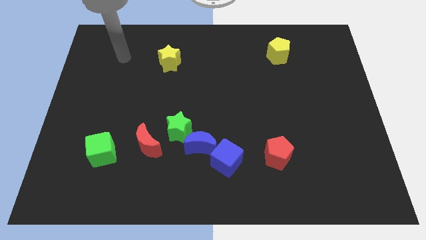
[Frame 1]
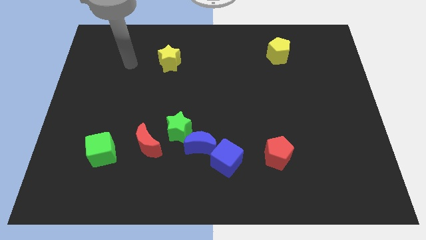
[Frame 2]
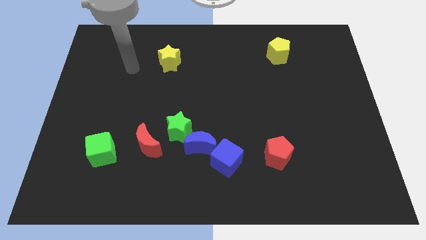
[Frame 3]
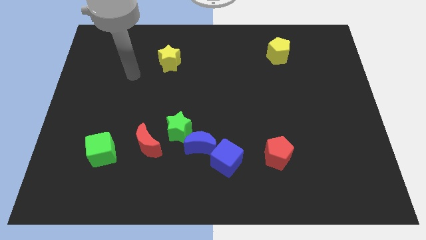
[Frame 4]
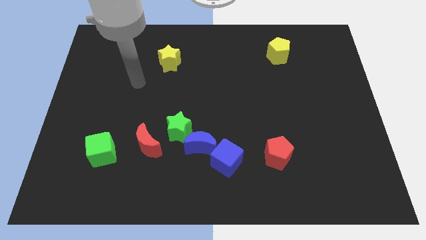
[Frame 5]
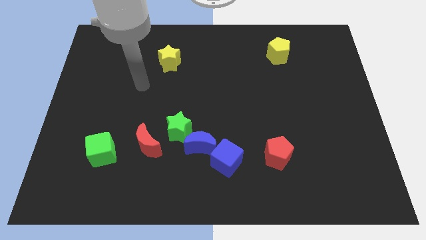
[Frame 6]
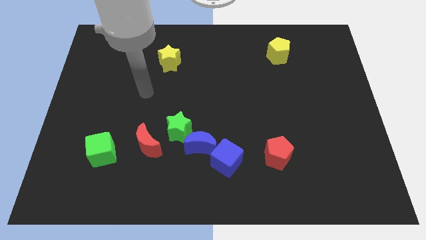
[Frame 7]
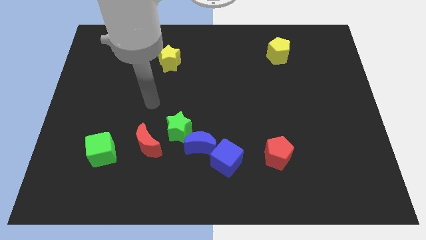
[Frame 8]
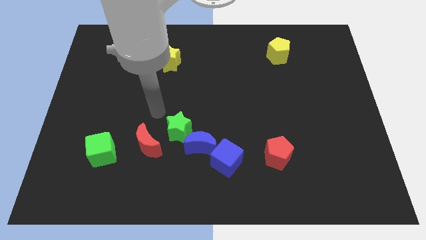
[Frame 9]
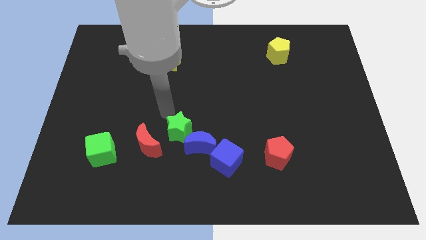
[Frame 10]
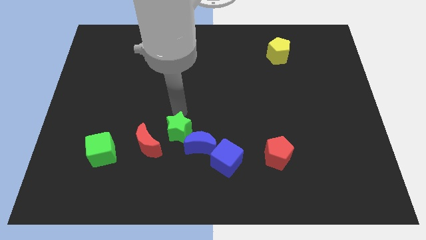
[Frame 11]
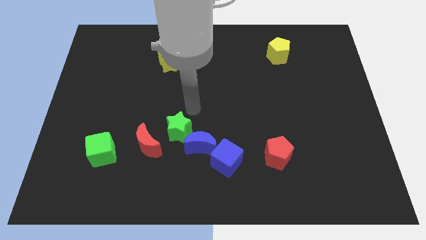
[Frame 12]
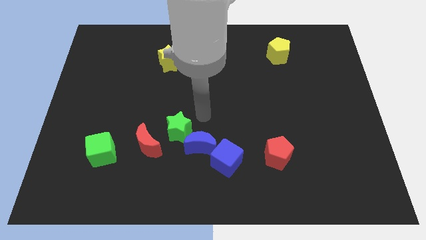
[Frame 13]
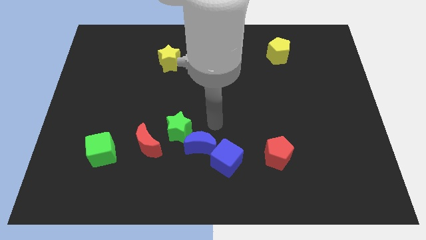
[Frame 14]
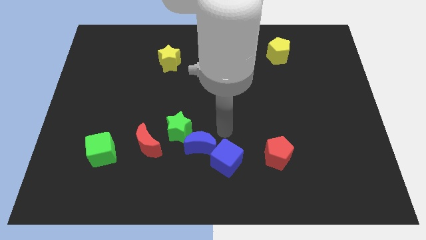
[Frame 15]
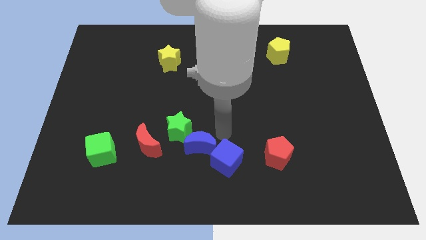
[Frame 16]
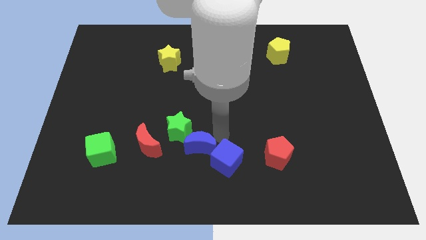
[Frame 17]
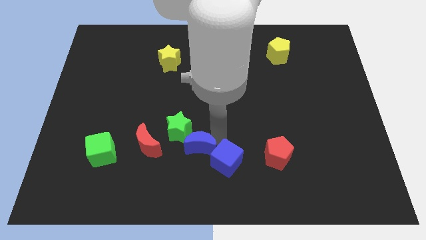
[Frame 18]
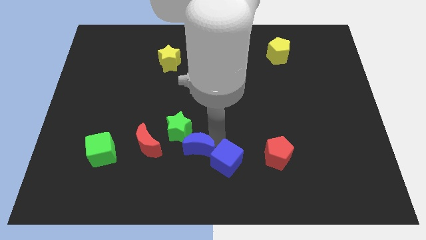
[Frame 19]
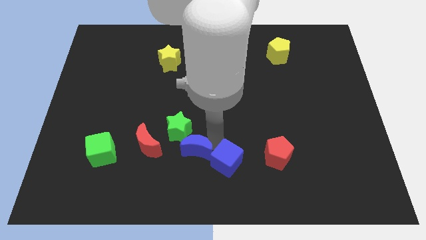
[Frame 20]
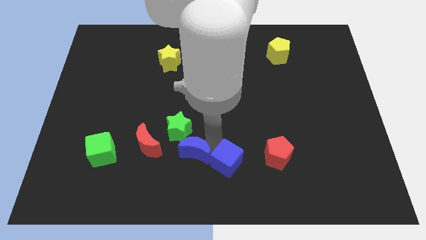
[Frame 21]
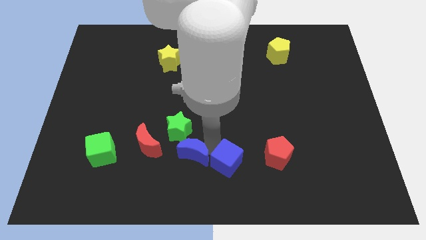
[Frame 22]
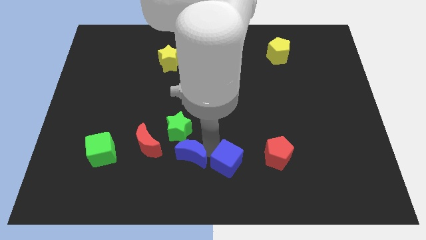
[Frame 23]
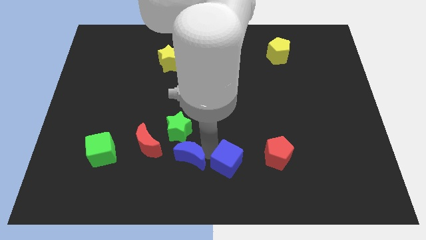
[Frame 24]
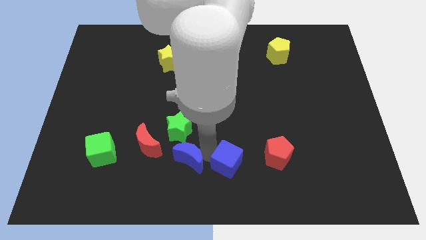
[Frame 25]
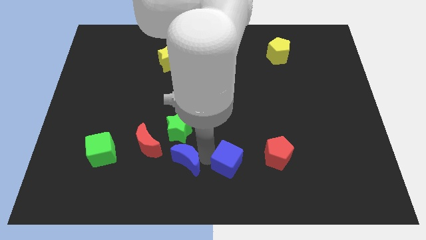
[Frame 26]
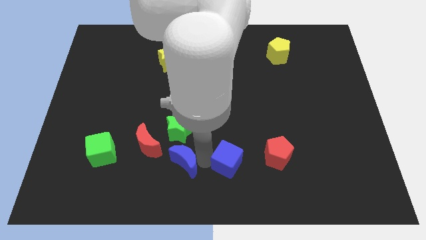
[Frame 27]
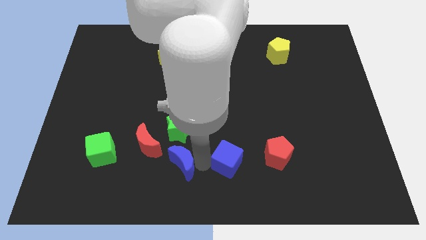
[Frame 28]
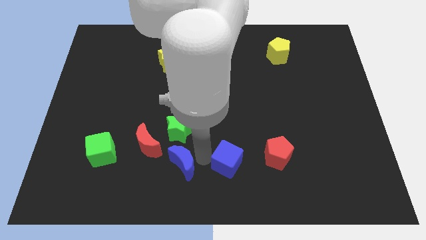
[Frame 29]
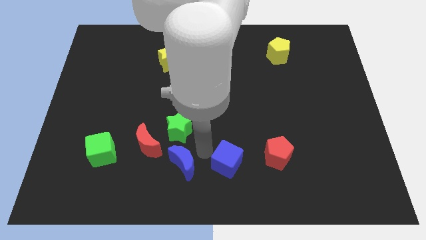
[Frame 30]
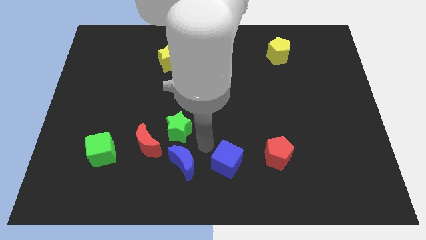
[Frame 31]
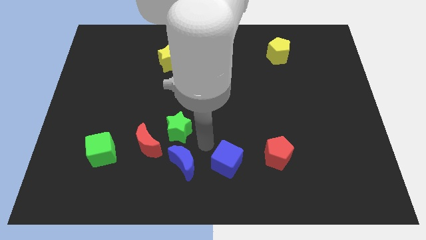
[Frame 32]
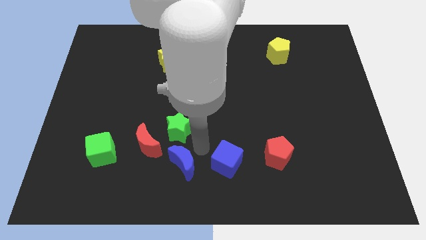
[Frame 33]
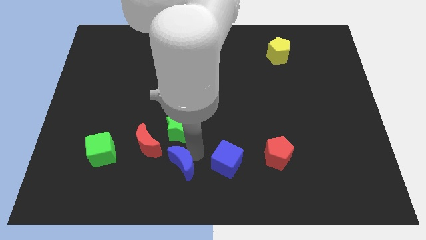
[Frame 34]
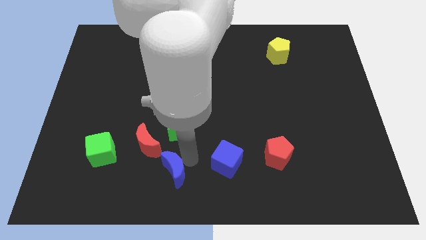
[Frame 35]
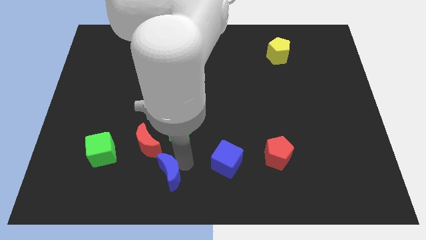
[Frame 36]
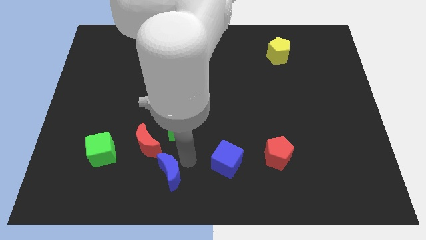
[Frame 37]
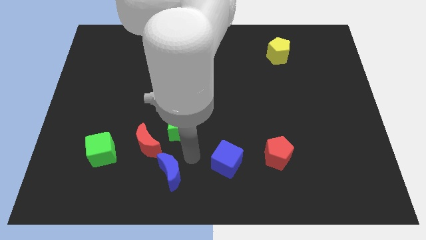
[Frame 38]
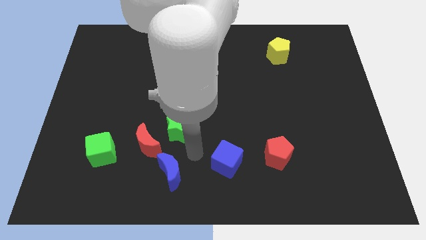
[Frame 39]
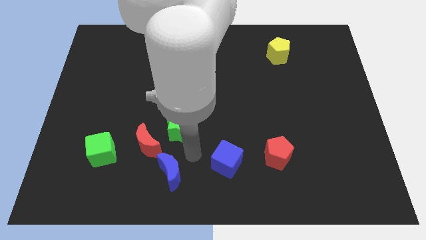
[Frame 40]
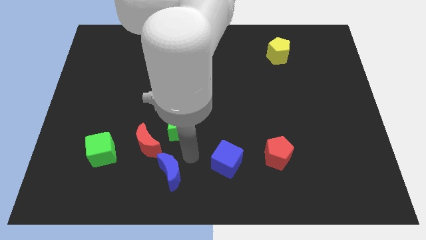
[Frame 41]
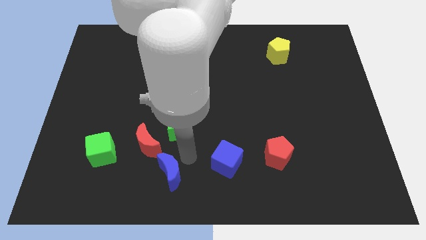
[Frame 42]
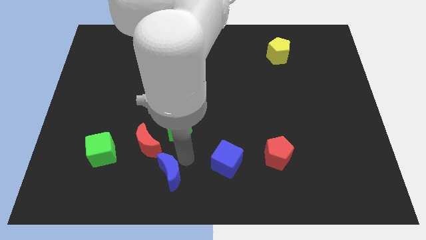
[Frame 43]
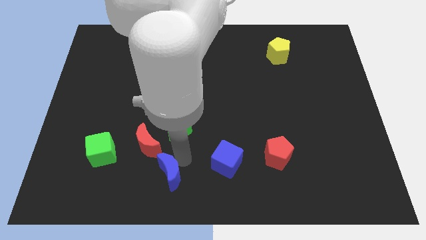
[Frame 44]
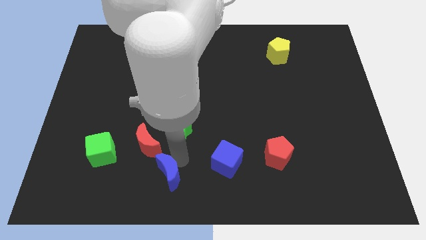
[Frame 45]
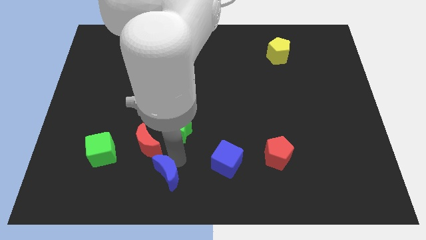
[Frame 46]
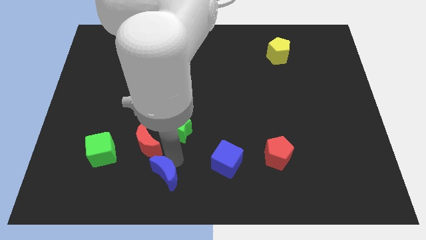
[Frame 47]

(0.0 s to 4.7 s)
pull the blue moon apart from the green star and blue cube

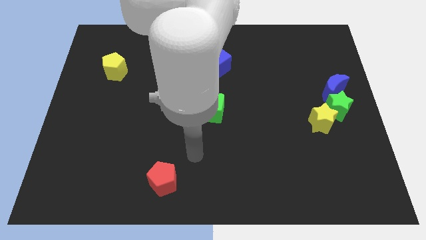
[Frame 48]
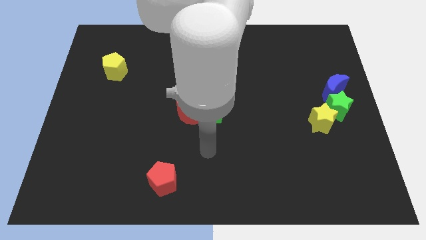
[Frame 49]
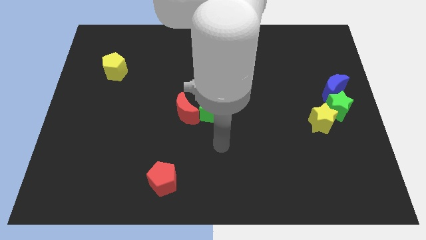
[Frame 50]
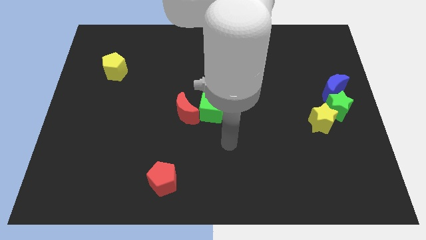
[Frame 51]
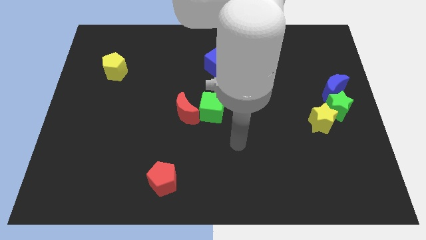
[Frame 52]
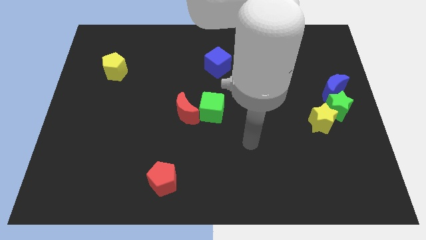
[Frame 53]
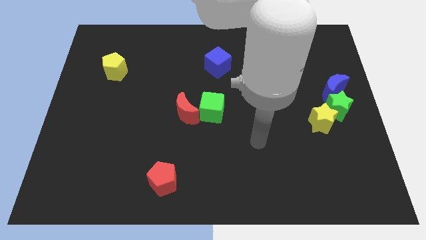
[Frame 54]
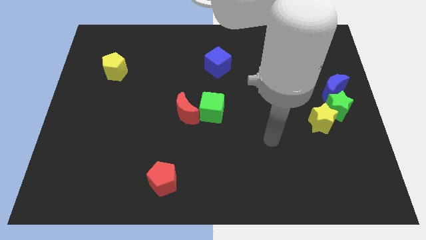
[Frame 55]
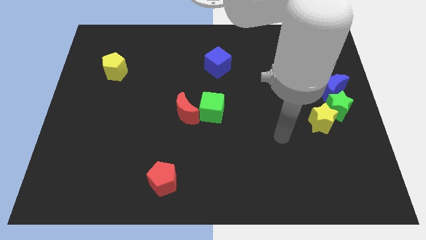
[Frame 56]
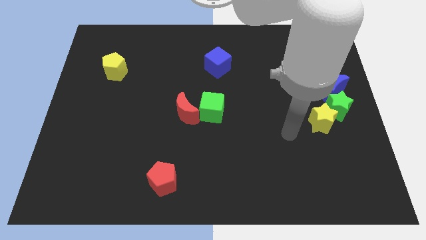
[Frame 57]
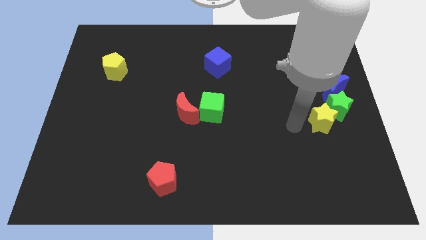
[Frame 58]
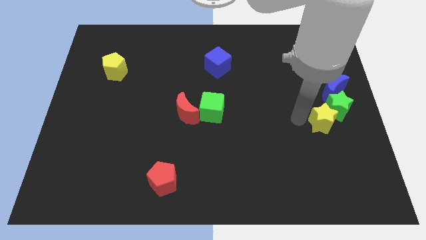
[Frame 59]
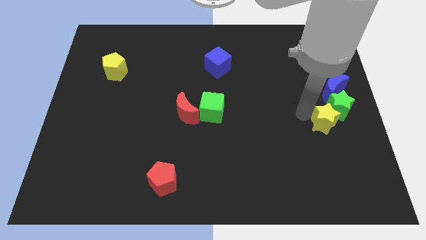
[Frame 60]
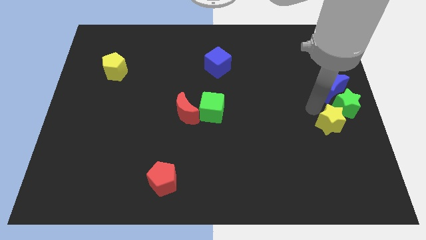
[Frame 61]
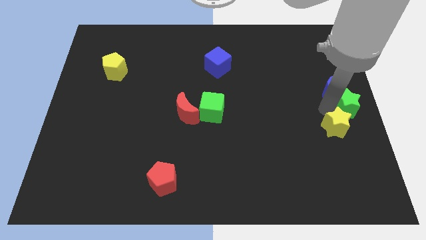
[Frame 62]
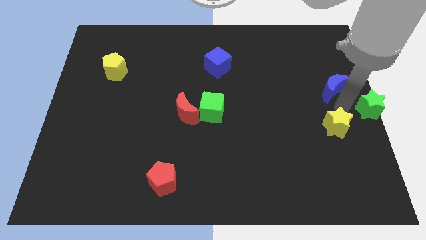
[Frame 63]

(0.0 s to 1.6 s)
separate the yellow star from the green star

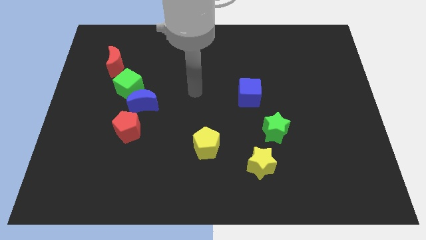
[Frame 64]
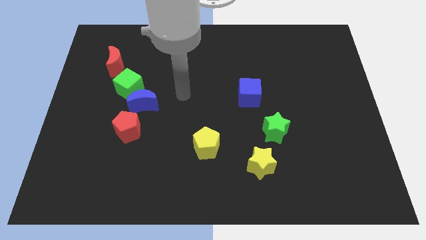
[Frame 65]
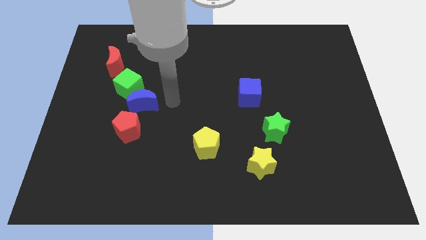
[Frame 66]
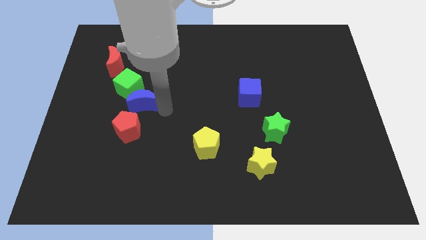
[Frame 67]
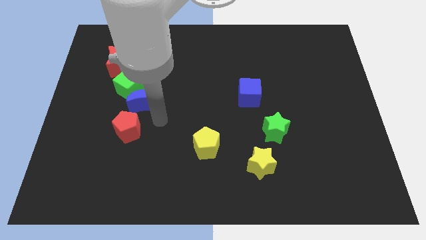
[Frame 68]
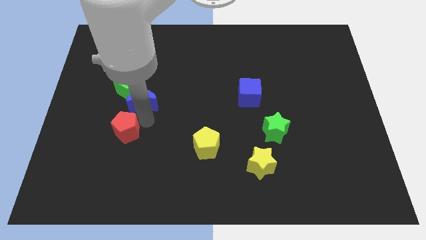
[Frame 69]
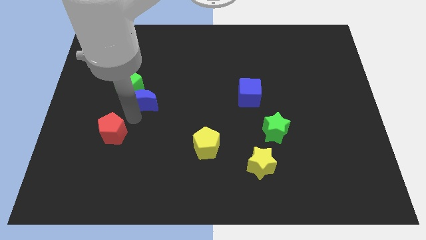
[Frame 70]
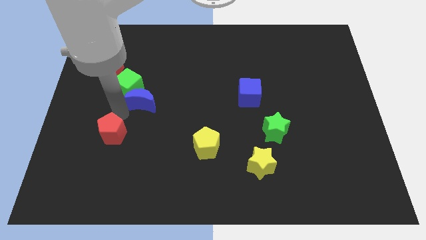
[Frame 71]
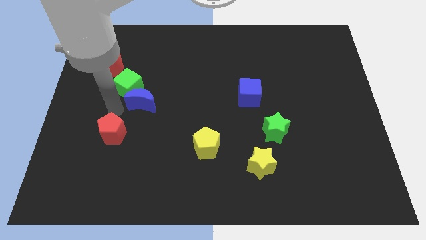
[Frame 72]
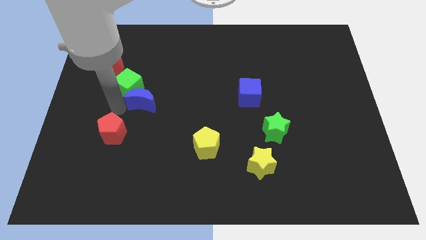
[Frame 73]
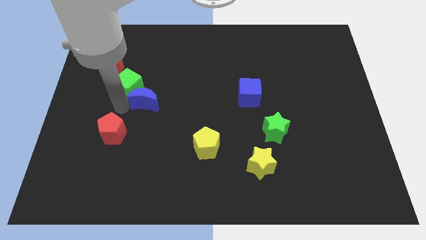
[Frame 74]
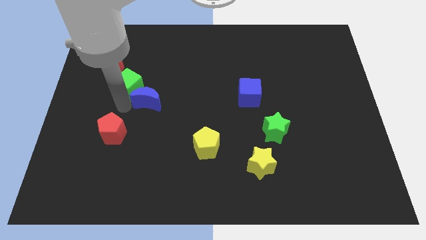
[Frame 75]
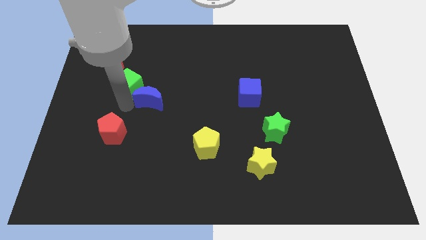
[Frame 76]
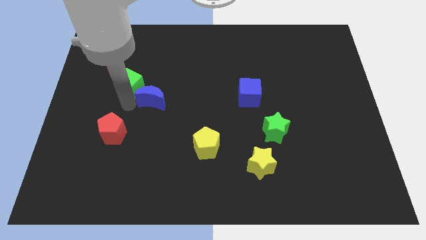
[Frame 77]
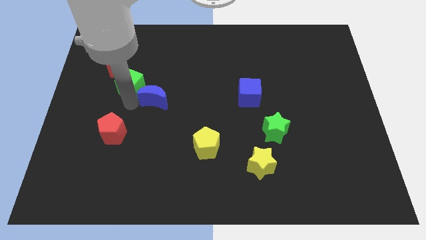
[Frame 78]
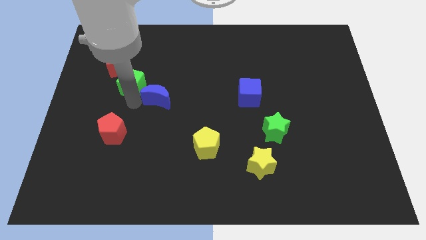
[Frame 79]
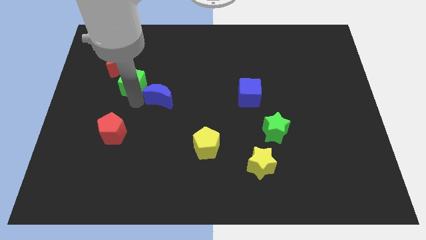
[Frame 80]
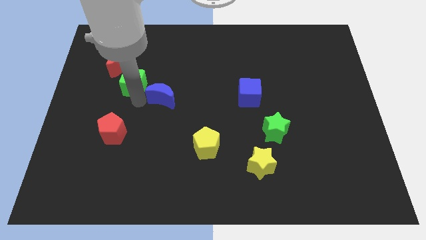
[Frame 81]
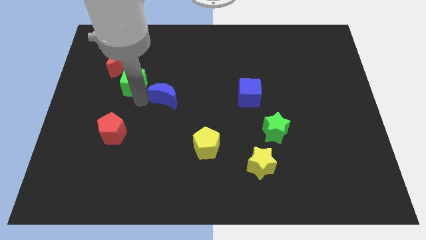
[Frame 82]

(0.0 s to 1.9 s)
pull the blue moon apart from the green cube and red pentagon

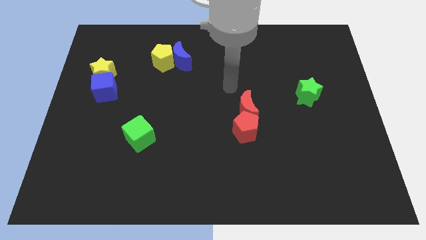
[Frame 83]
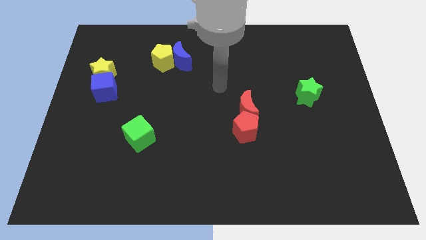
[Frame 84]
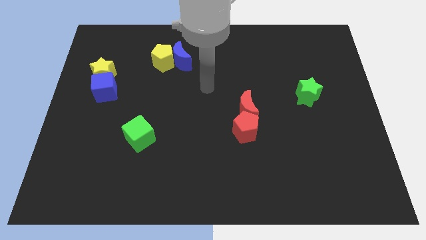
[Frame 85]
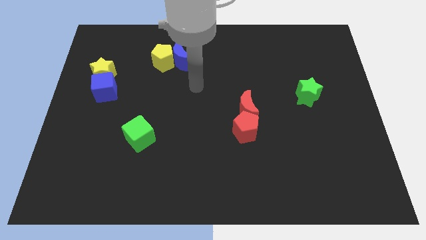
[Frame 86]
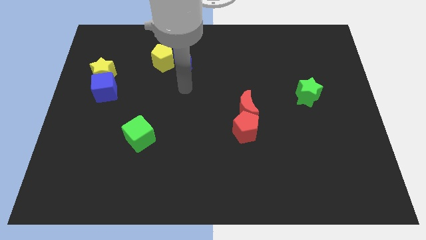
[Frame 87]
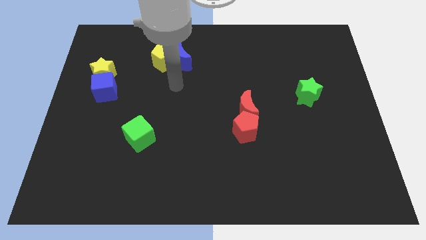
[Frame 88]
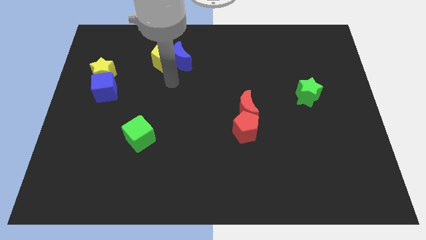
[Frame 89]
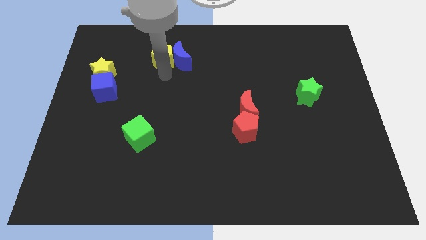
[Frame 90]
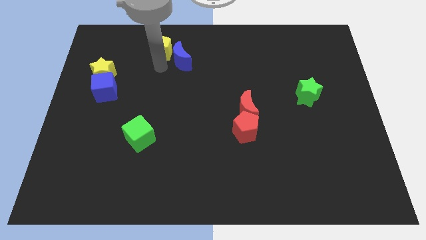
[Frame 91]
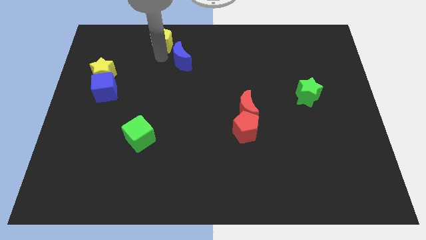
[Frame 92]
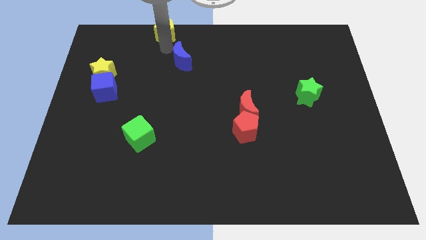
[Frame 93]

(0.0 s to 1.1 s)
pull the blue moon apart from the yellow pentagon
